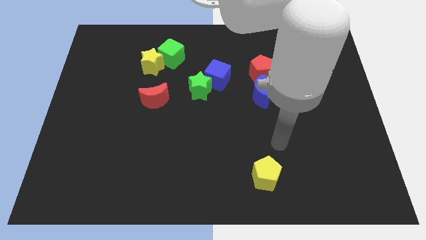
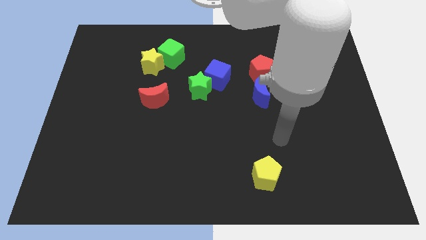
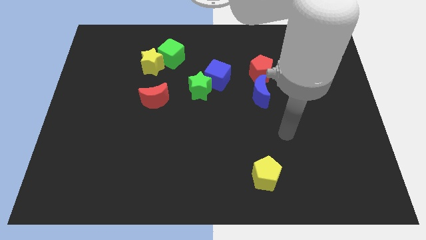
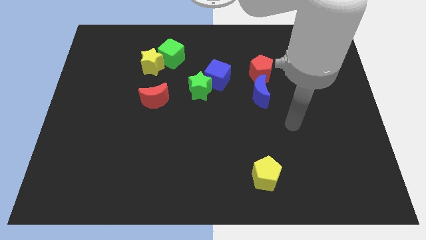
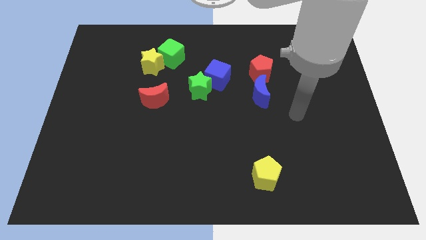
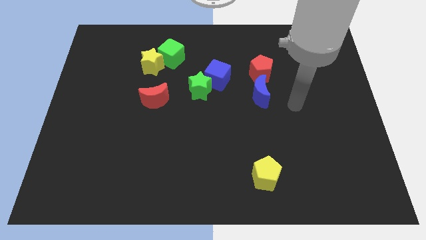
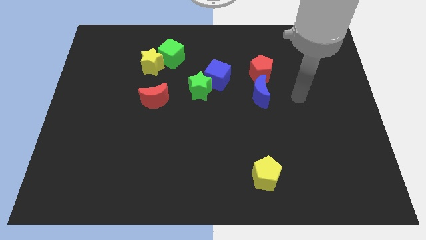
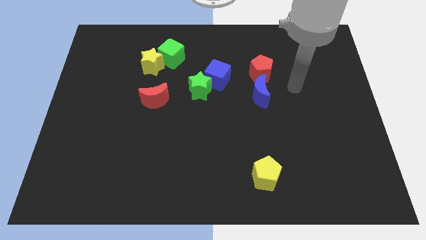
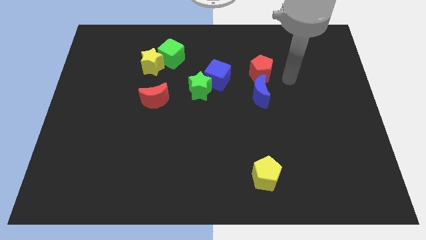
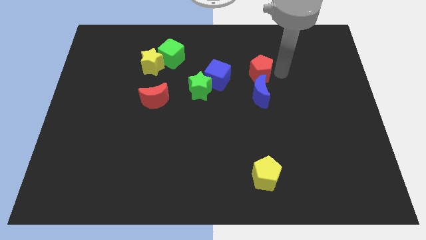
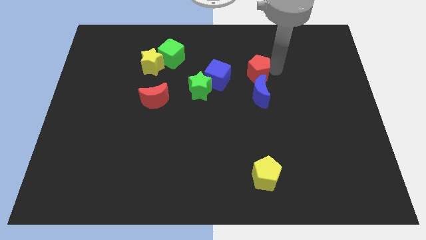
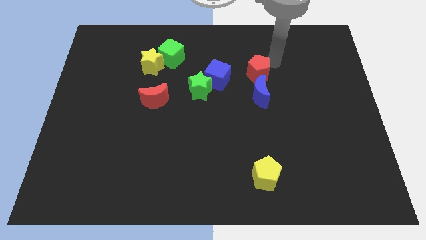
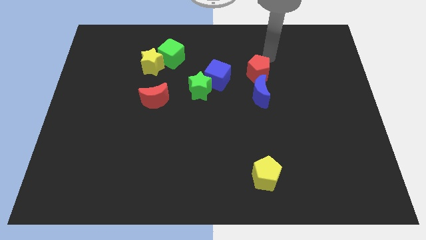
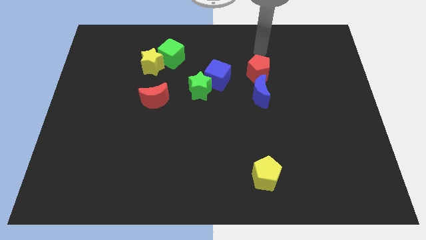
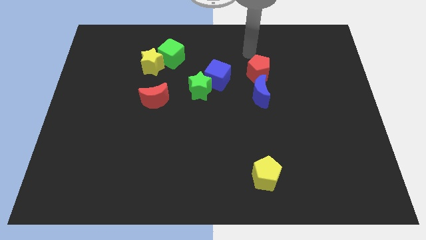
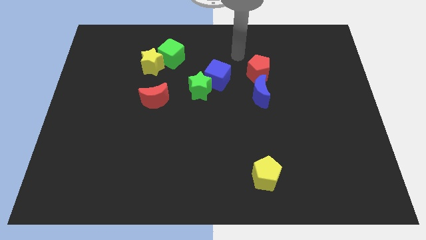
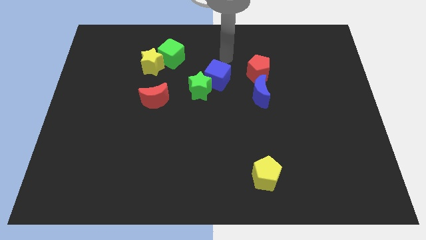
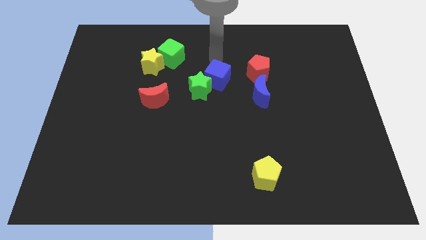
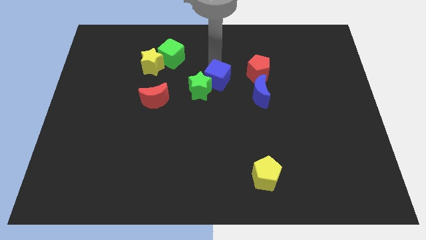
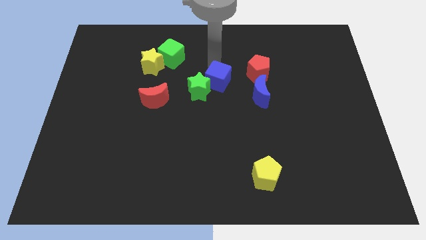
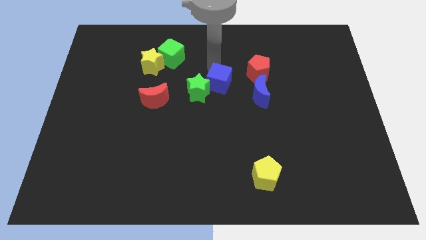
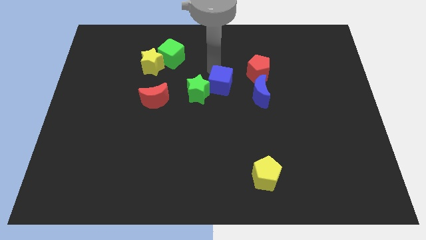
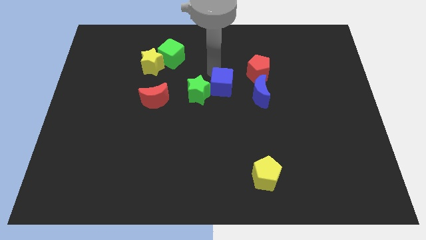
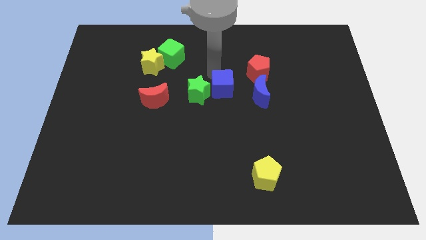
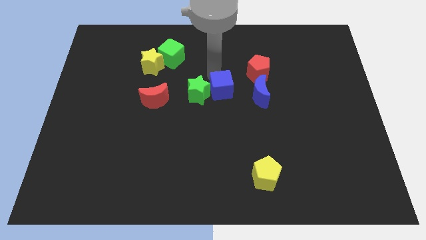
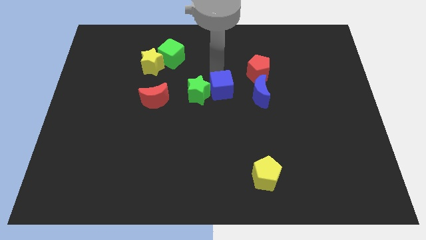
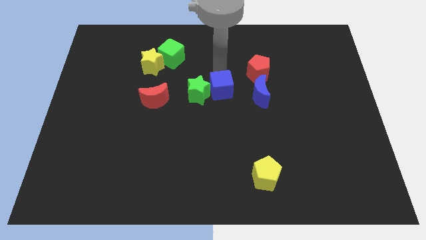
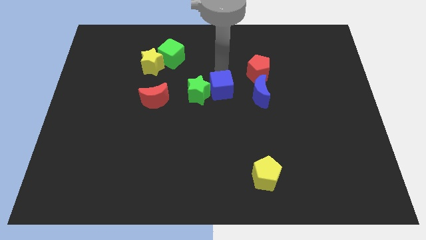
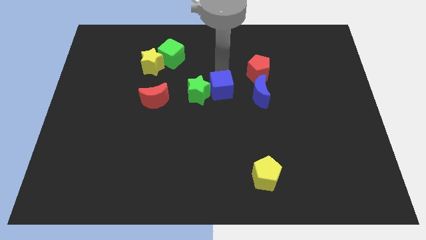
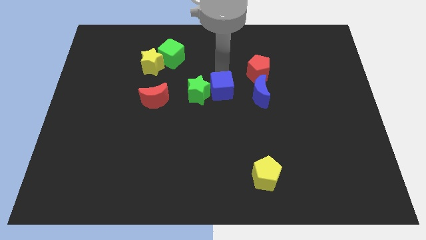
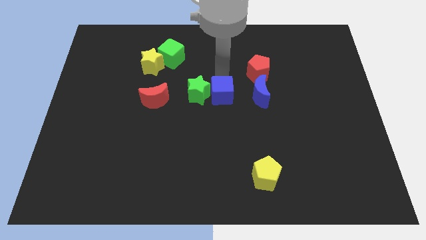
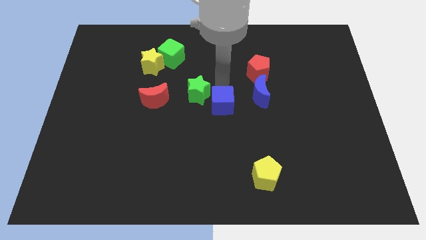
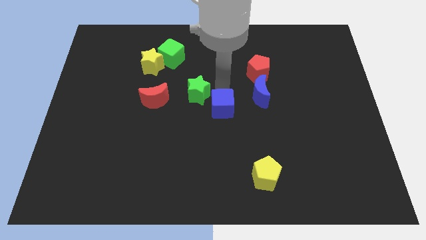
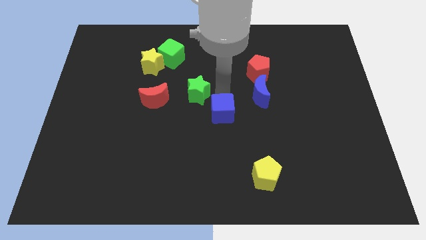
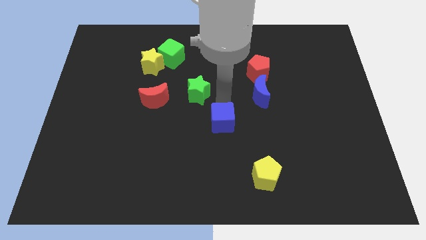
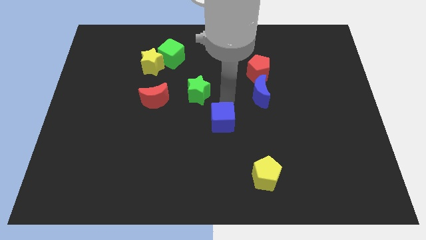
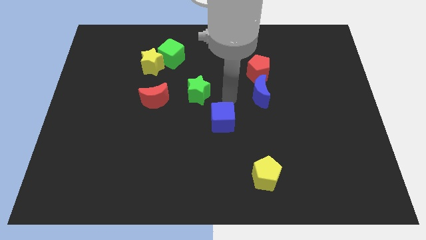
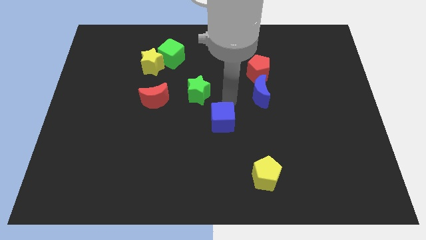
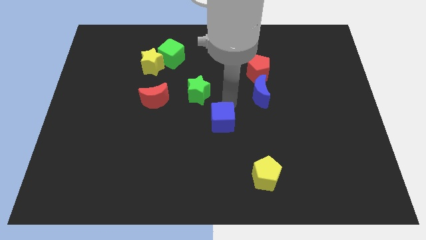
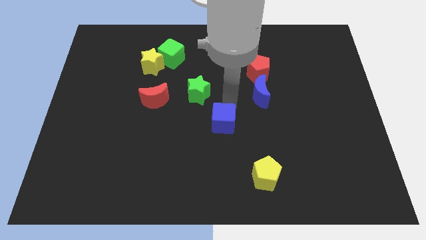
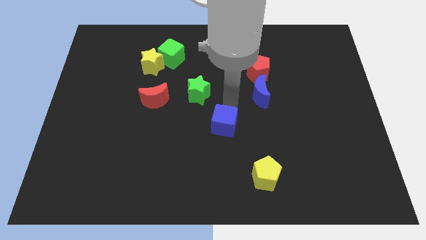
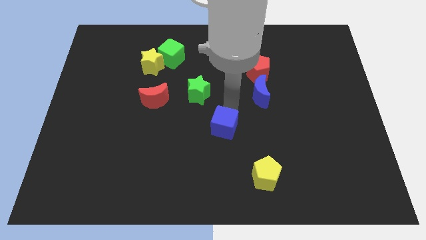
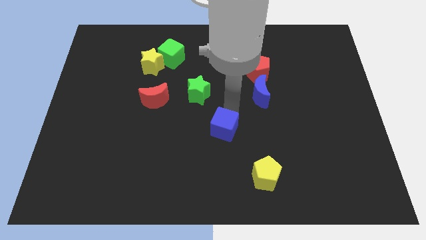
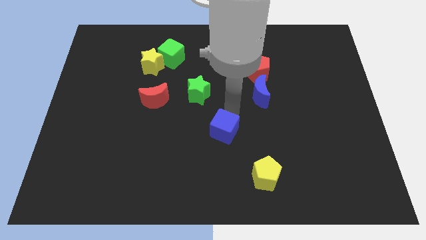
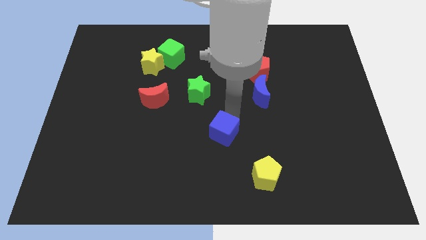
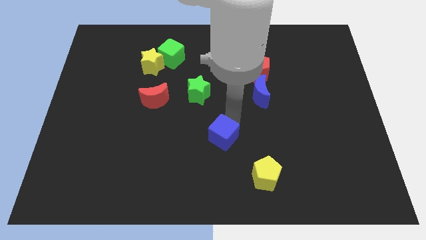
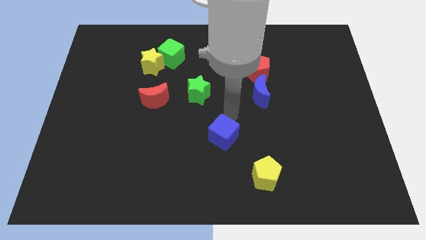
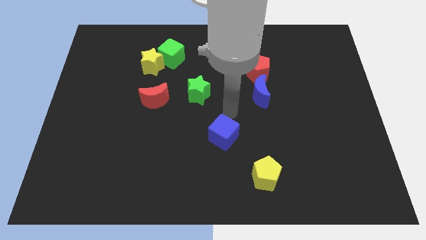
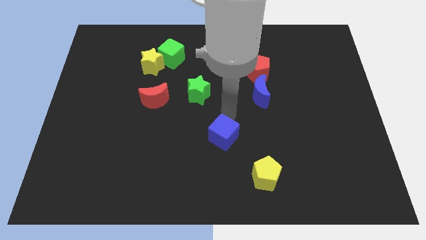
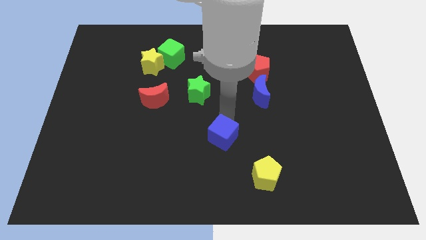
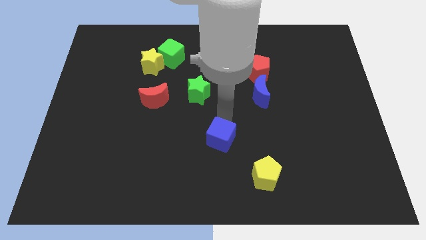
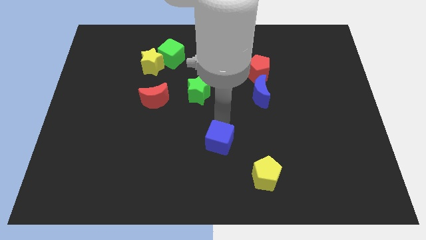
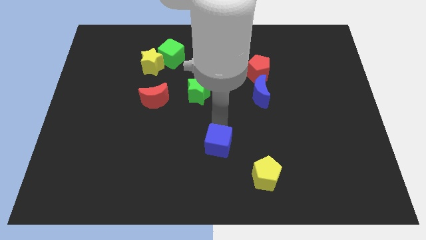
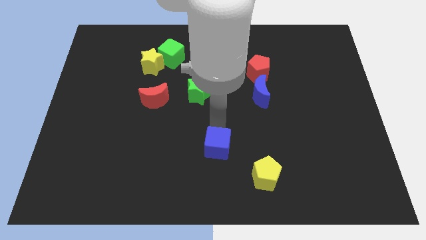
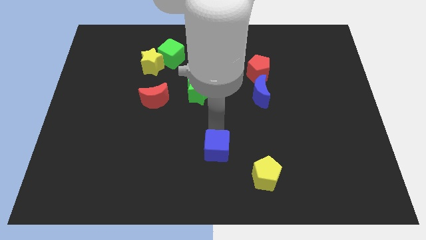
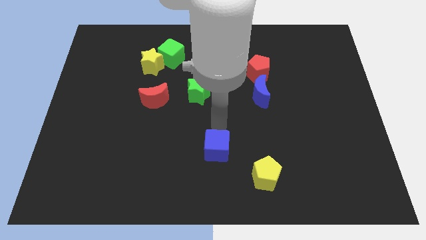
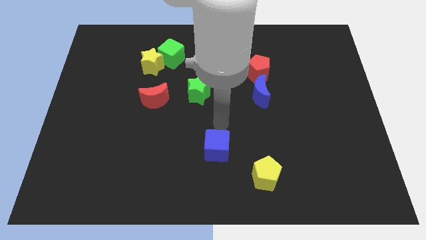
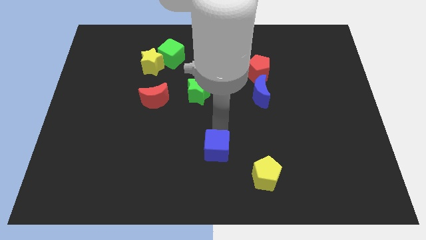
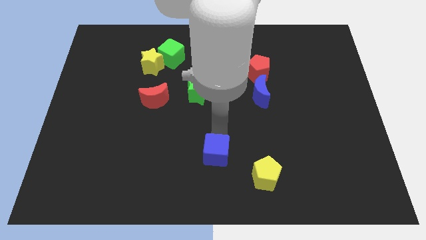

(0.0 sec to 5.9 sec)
move the blue cube to the bottom side

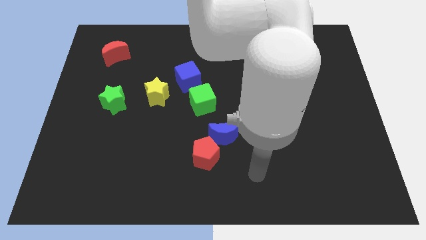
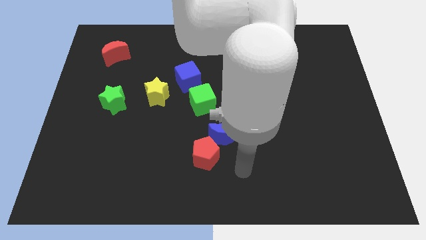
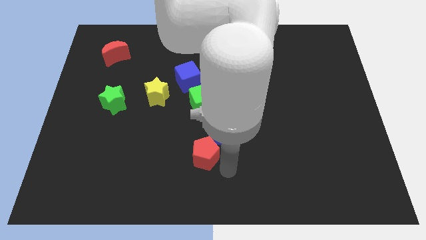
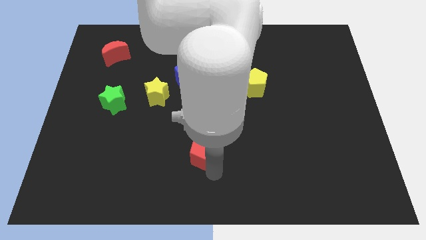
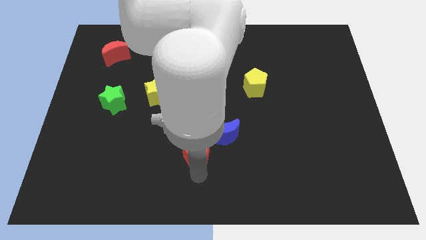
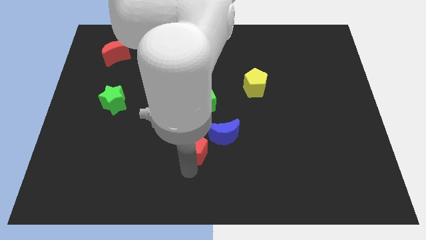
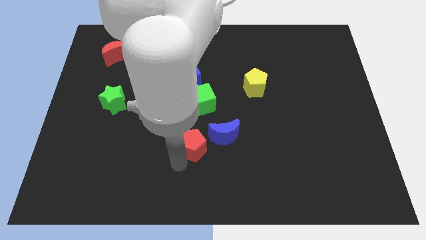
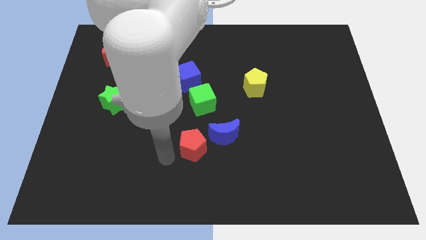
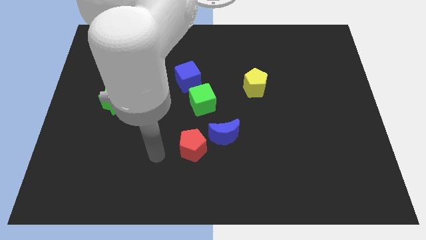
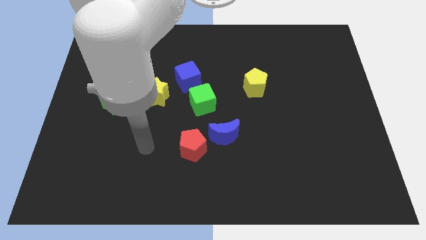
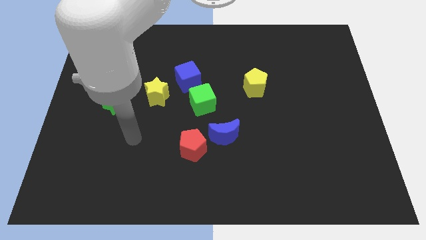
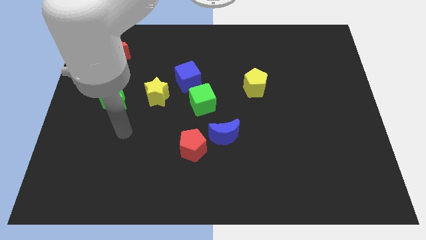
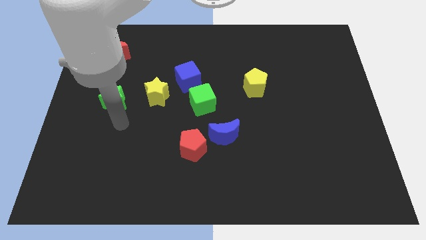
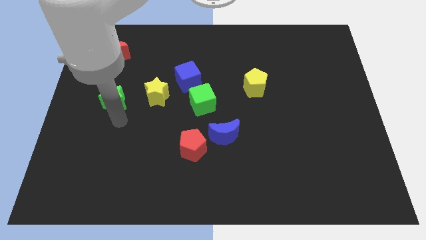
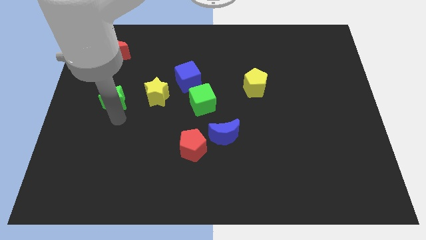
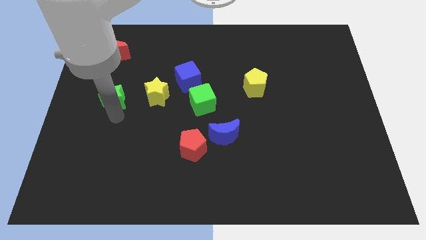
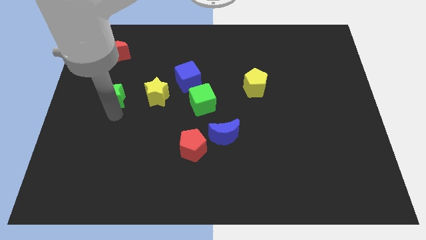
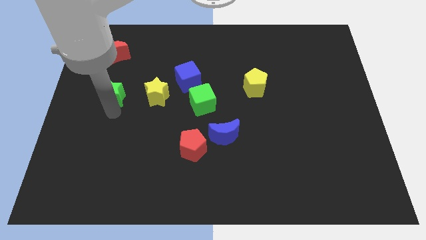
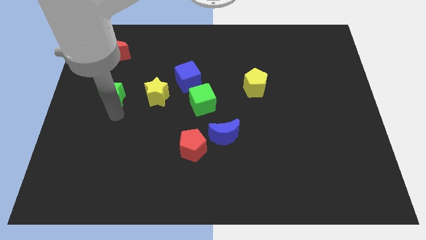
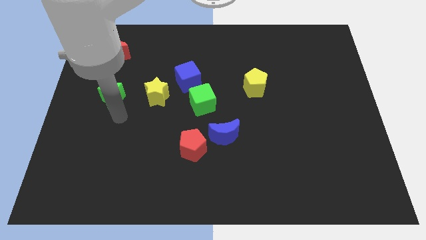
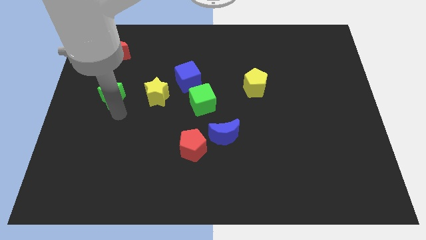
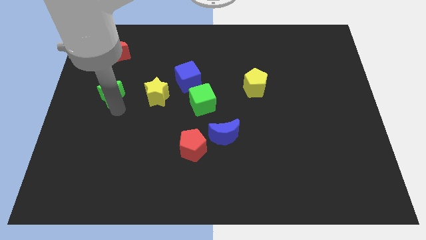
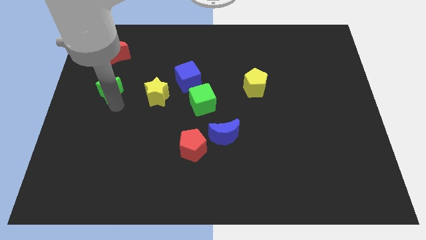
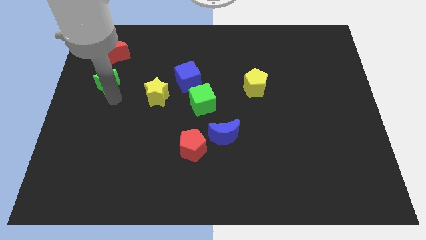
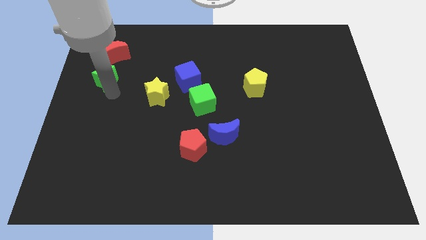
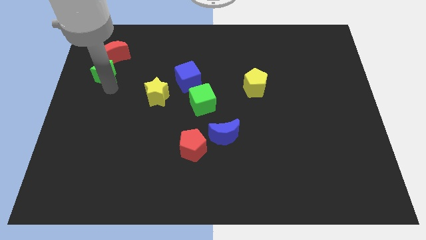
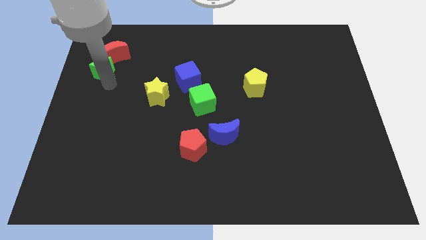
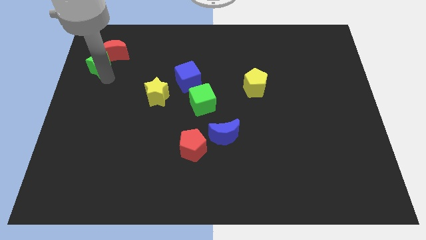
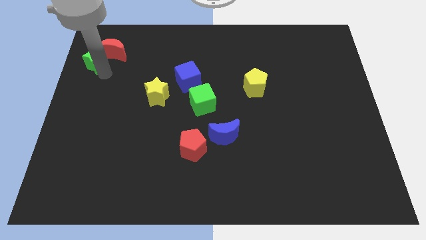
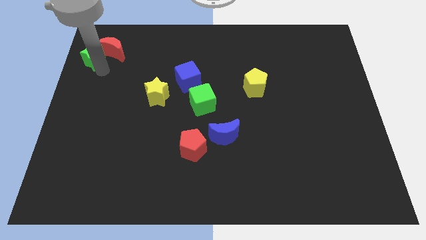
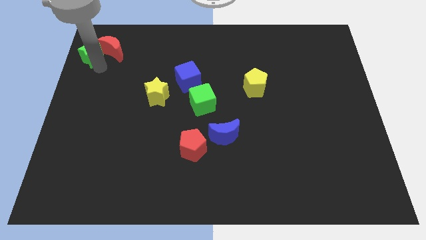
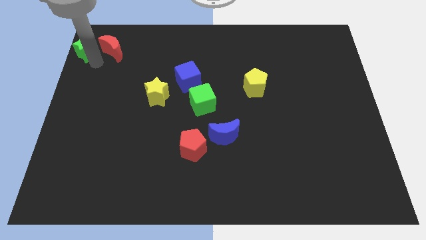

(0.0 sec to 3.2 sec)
slide the green star to the top left corner
